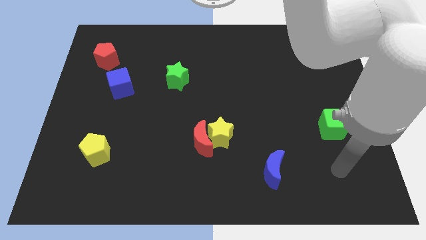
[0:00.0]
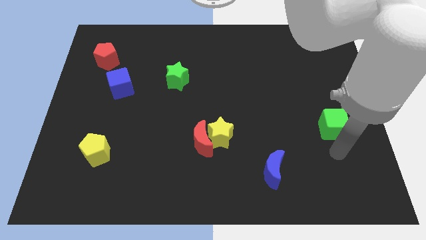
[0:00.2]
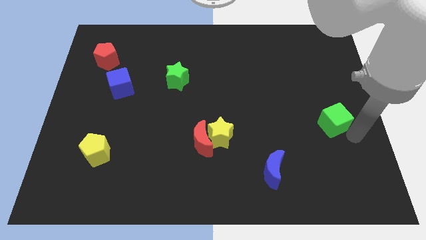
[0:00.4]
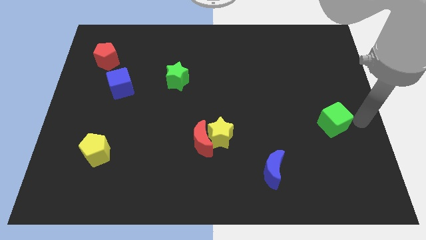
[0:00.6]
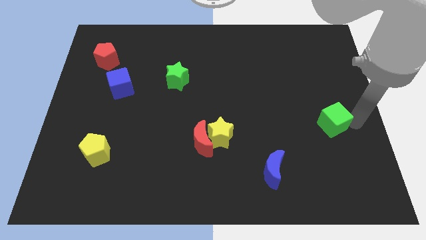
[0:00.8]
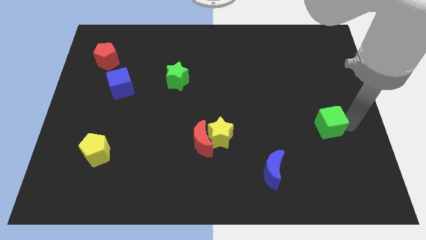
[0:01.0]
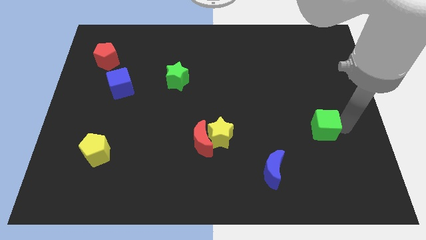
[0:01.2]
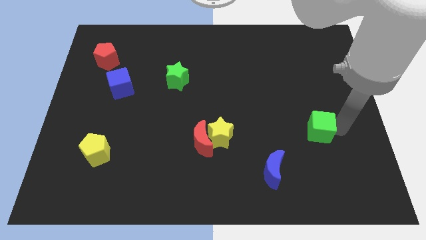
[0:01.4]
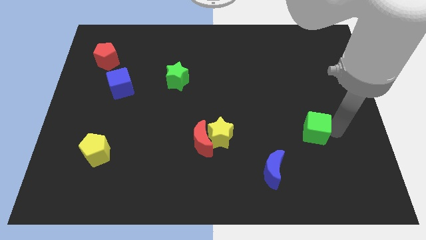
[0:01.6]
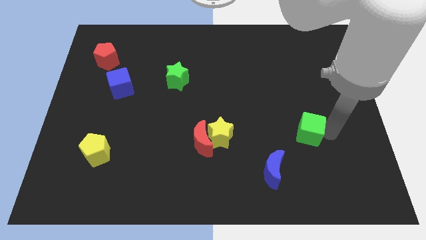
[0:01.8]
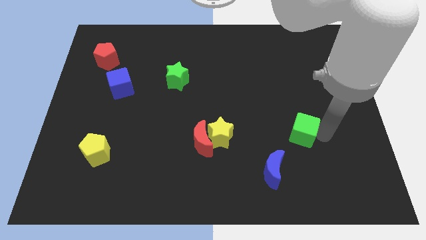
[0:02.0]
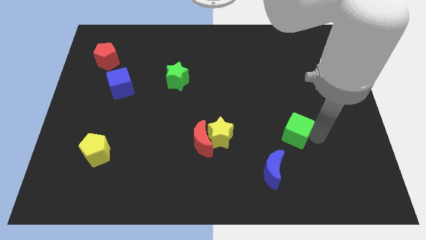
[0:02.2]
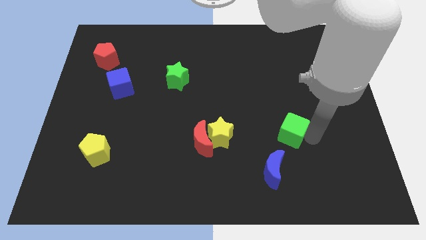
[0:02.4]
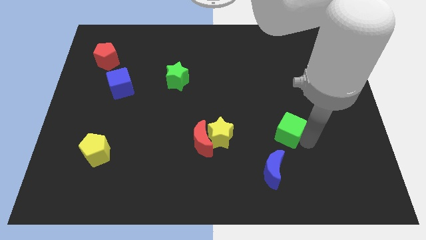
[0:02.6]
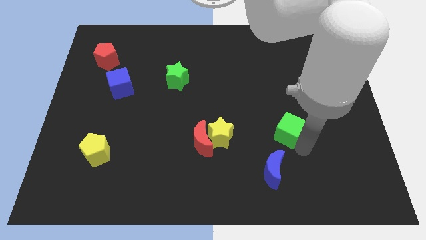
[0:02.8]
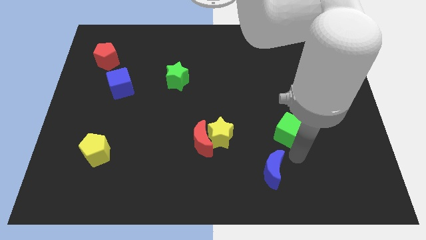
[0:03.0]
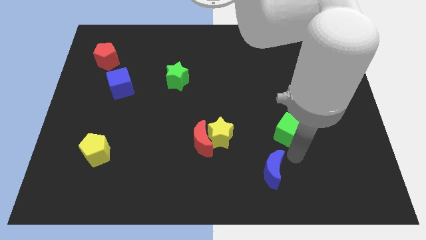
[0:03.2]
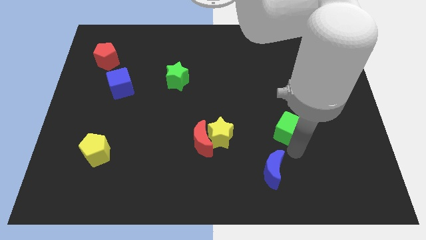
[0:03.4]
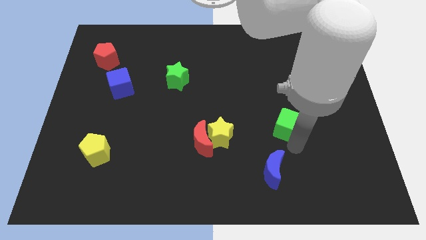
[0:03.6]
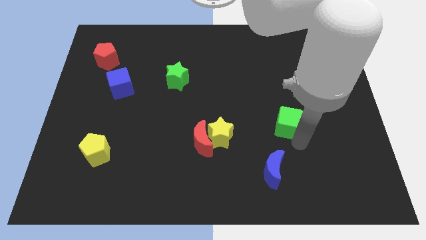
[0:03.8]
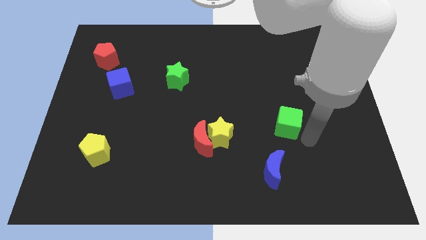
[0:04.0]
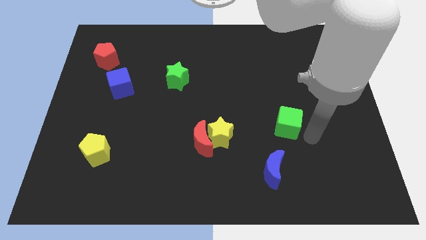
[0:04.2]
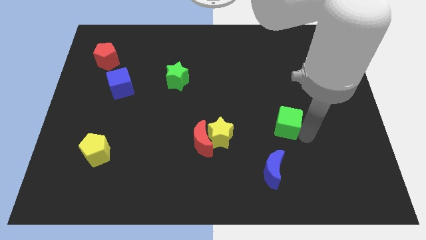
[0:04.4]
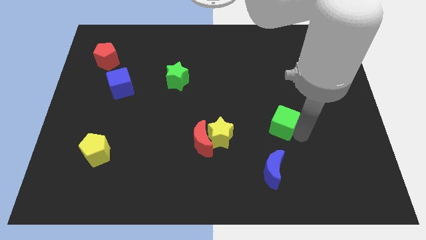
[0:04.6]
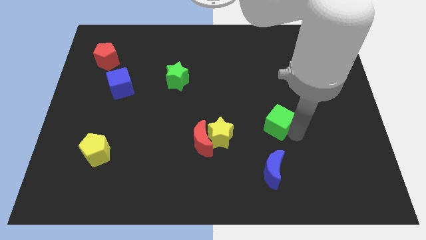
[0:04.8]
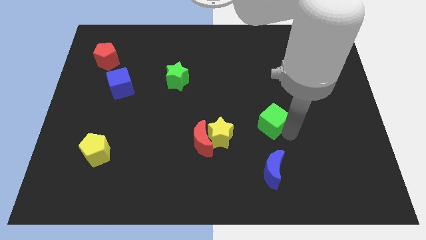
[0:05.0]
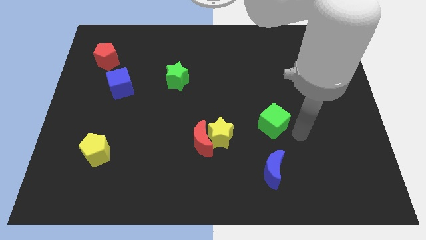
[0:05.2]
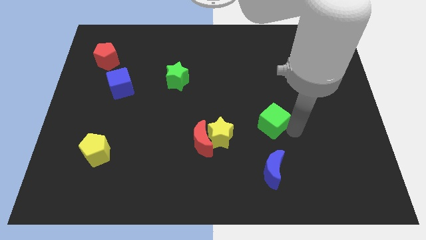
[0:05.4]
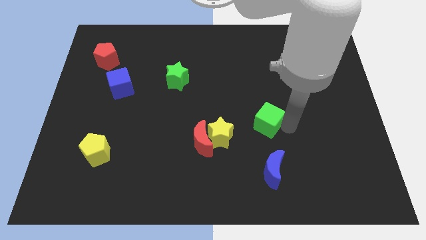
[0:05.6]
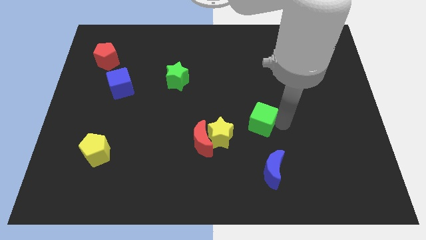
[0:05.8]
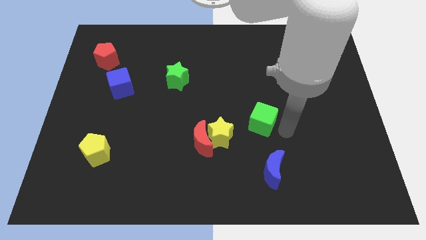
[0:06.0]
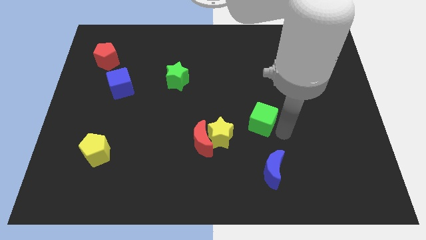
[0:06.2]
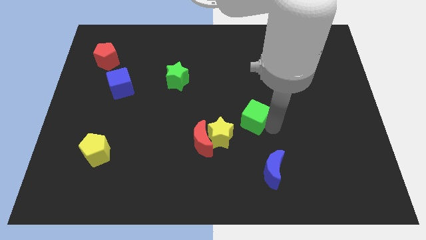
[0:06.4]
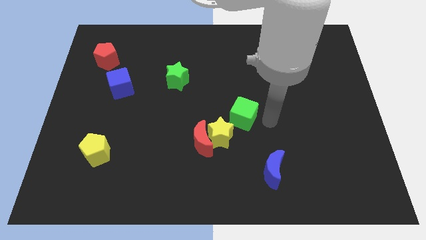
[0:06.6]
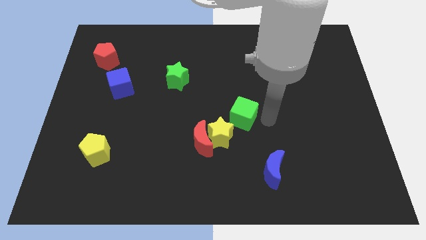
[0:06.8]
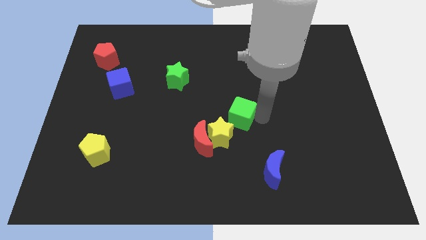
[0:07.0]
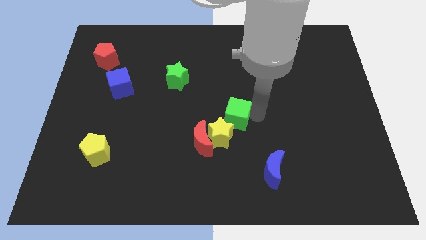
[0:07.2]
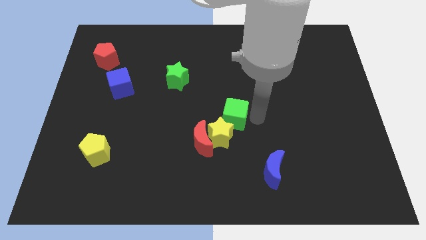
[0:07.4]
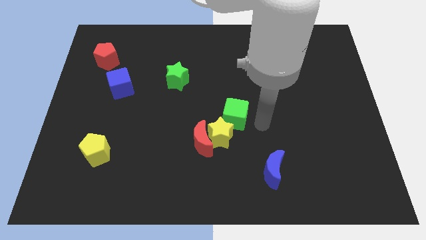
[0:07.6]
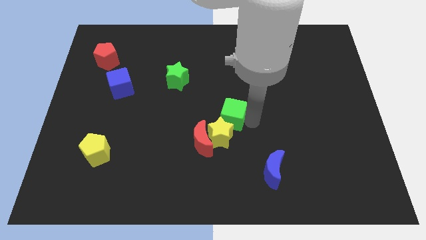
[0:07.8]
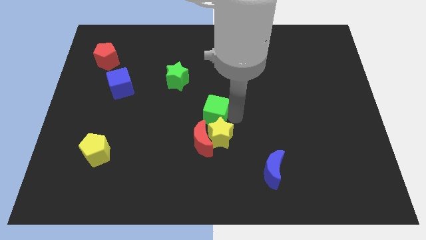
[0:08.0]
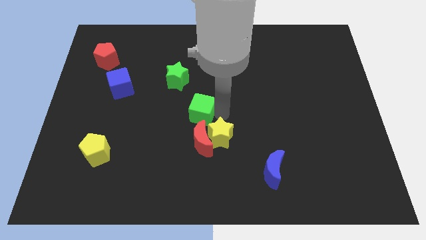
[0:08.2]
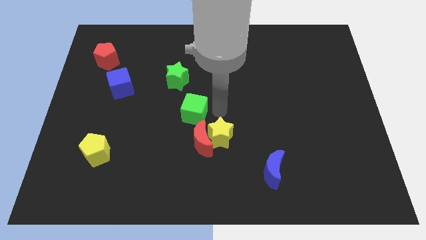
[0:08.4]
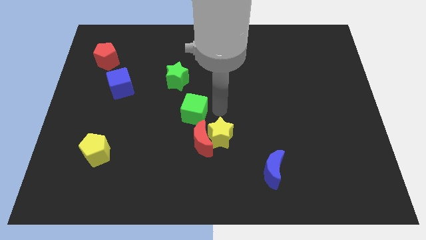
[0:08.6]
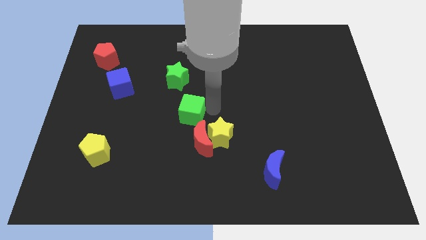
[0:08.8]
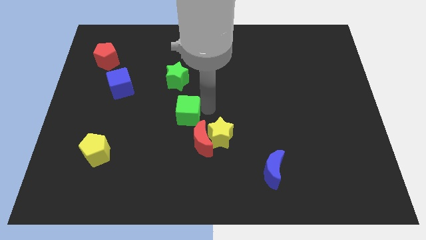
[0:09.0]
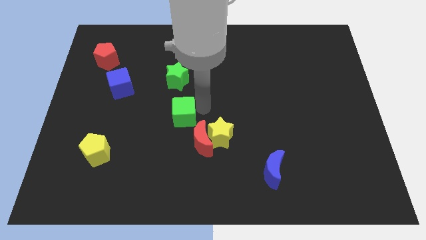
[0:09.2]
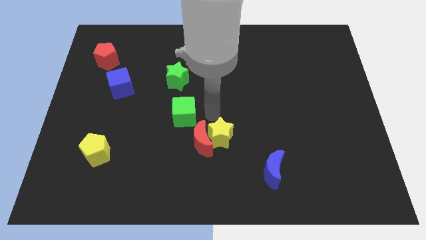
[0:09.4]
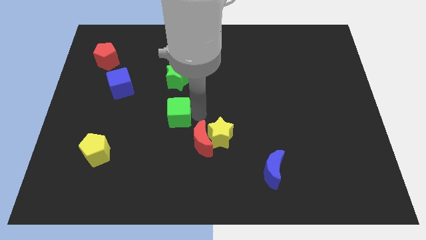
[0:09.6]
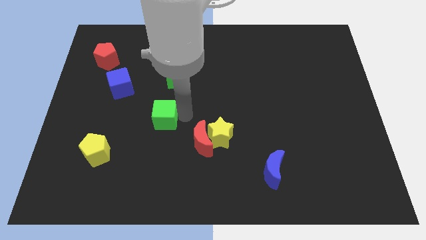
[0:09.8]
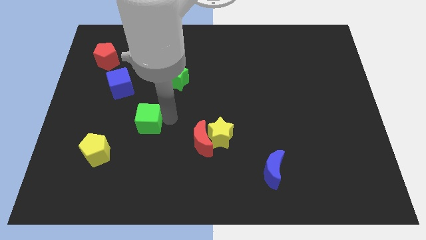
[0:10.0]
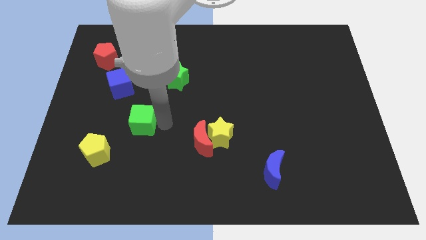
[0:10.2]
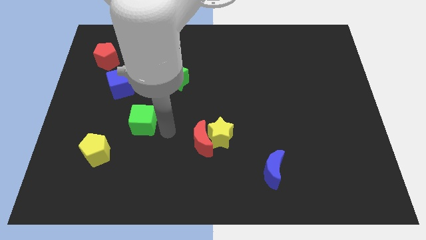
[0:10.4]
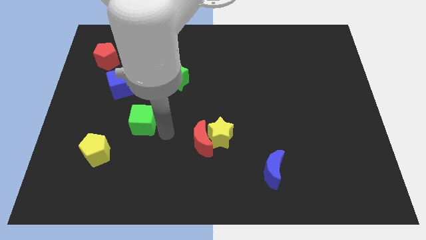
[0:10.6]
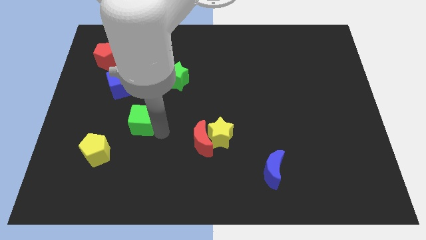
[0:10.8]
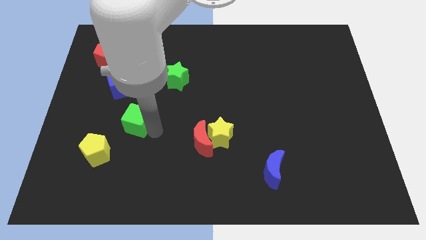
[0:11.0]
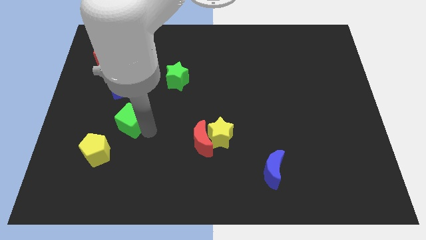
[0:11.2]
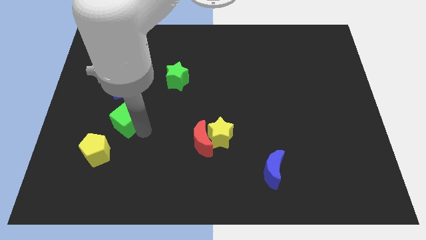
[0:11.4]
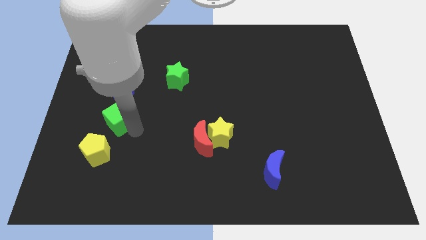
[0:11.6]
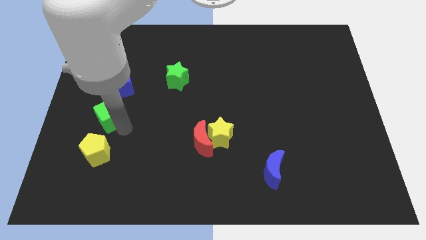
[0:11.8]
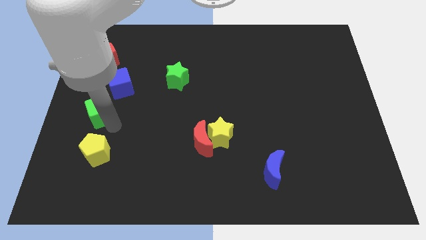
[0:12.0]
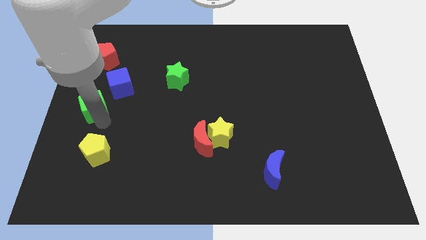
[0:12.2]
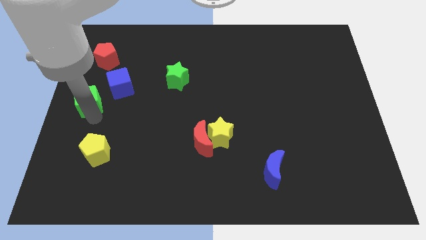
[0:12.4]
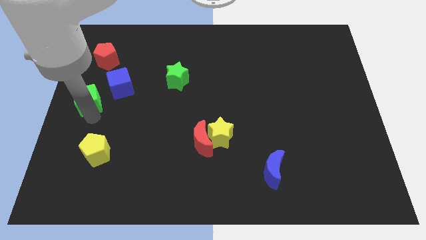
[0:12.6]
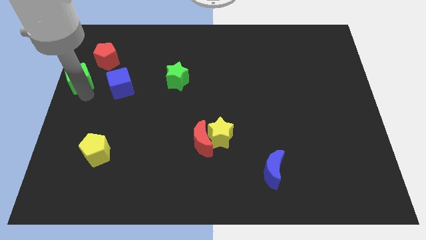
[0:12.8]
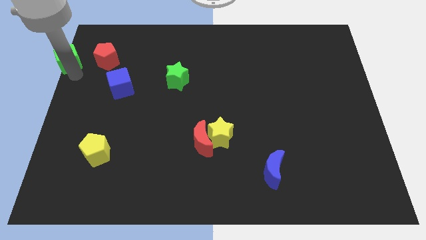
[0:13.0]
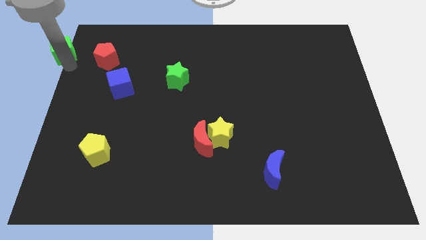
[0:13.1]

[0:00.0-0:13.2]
push the green cube to the top left
